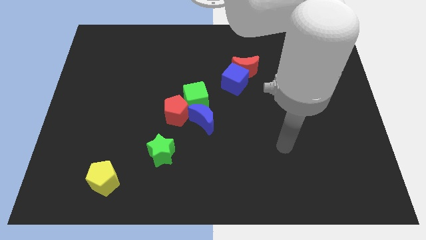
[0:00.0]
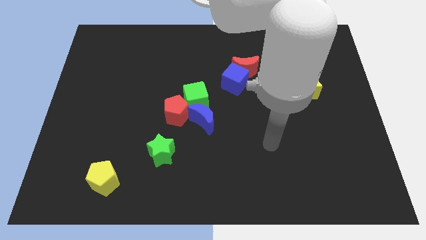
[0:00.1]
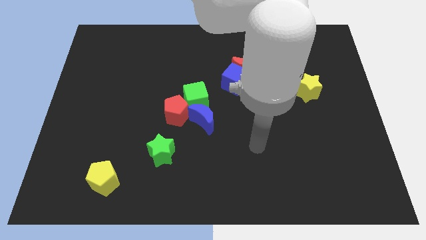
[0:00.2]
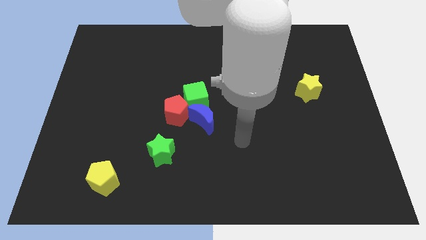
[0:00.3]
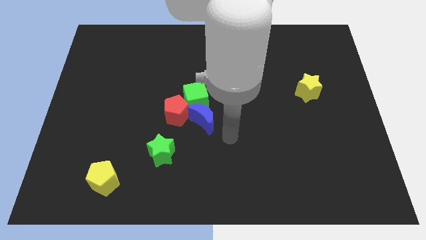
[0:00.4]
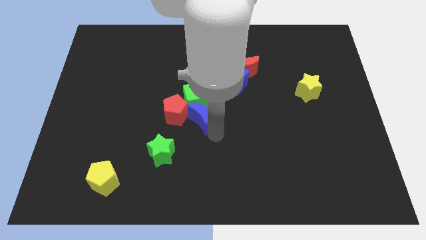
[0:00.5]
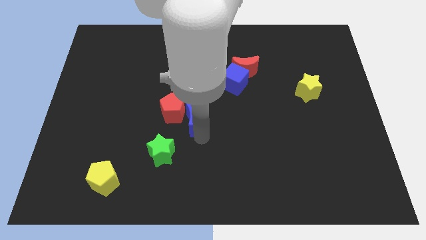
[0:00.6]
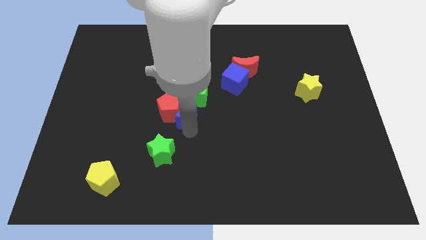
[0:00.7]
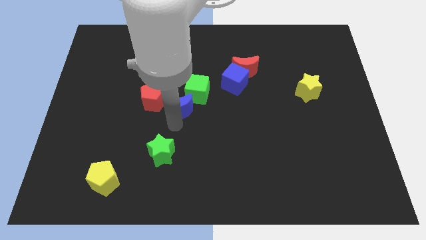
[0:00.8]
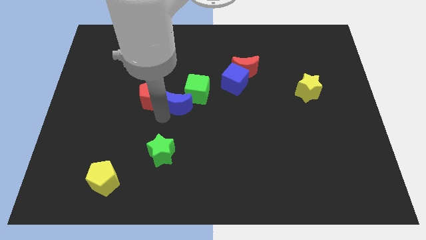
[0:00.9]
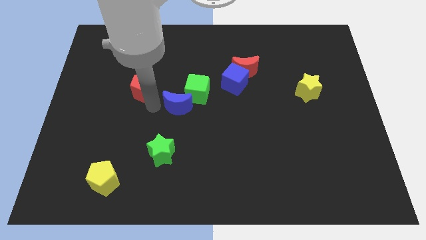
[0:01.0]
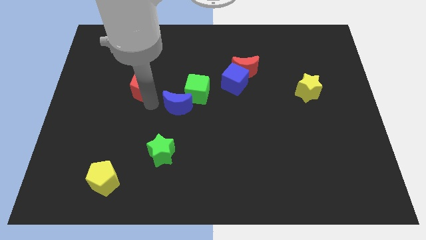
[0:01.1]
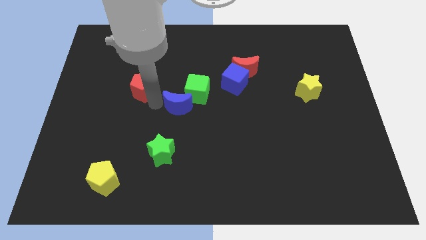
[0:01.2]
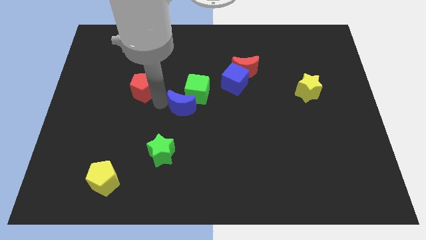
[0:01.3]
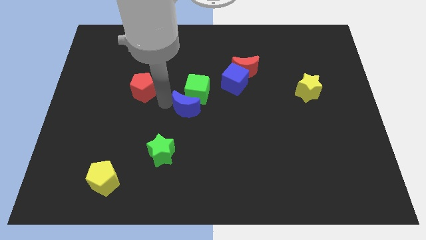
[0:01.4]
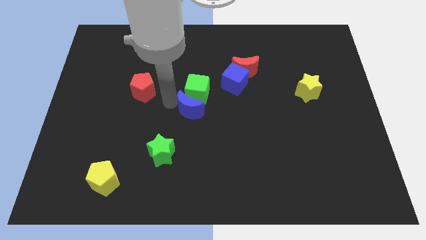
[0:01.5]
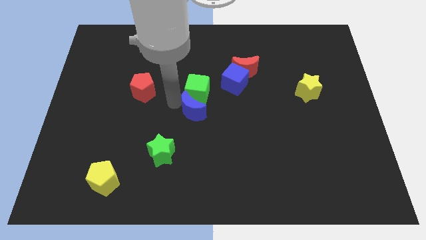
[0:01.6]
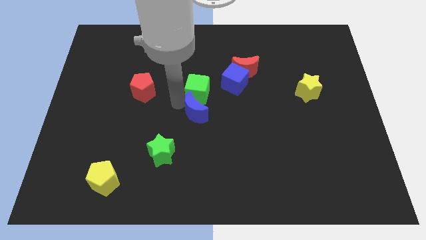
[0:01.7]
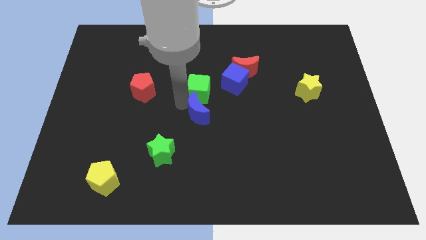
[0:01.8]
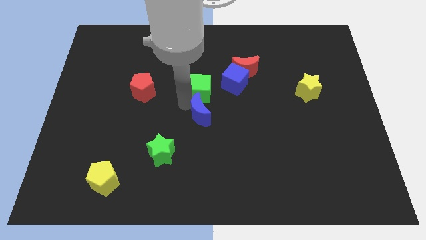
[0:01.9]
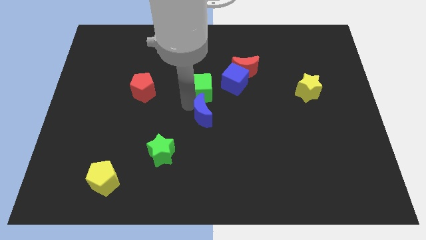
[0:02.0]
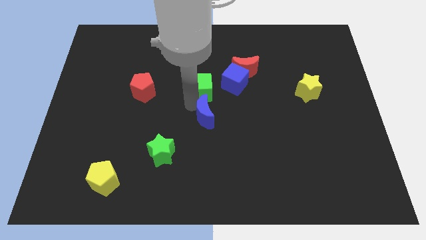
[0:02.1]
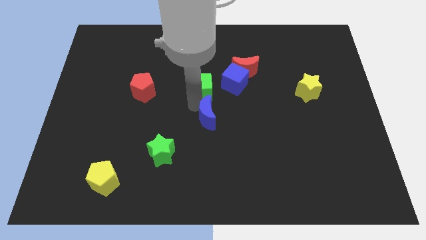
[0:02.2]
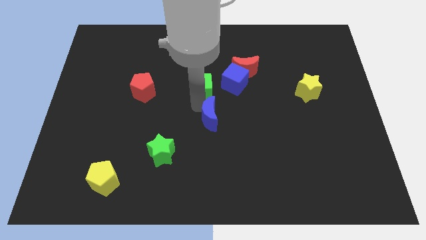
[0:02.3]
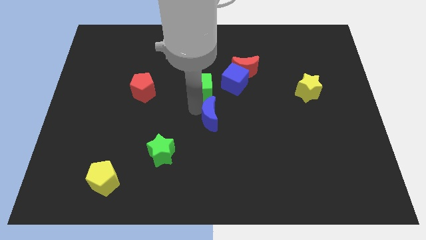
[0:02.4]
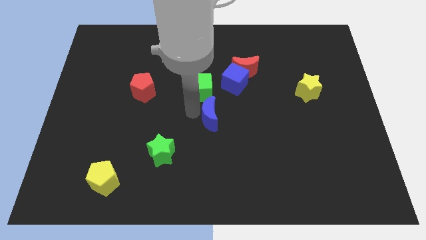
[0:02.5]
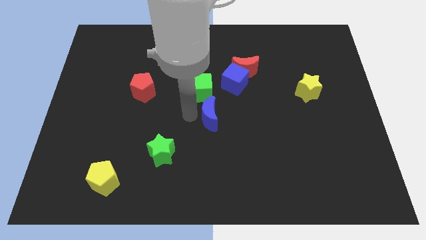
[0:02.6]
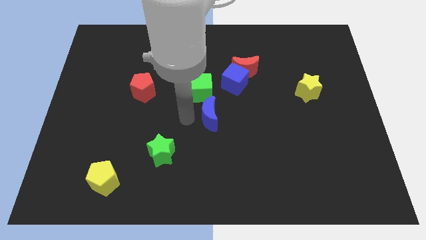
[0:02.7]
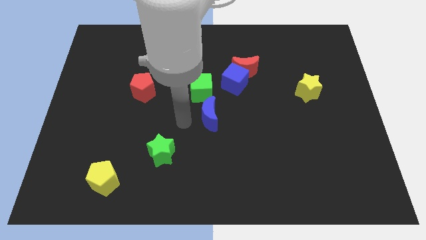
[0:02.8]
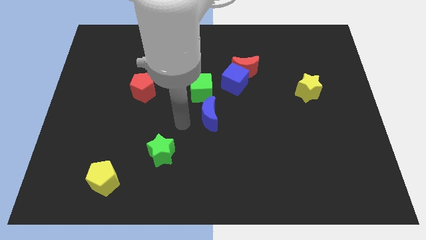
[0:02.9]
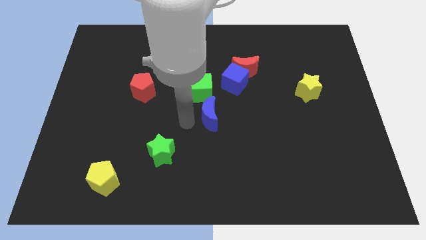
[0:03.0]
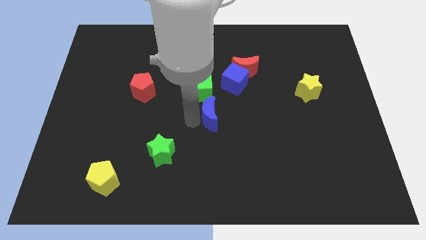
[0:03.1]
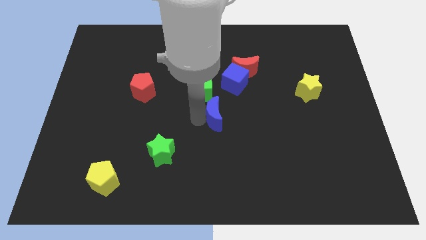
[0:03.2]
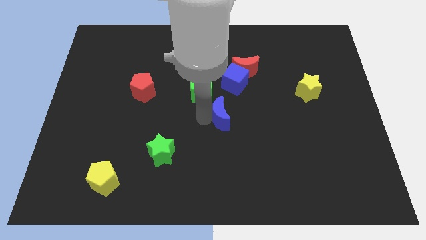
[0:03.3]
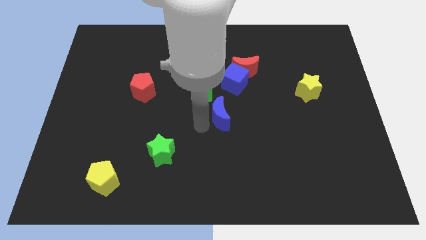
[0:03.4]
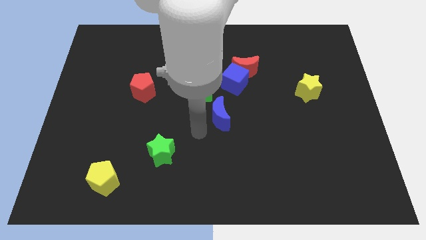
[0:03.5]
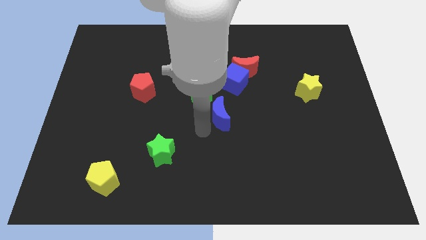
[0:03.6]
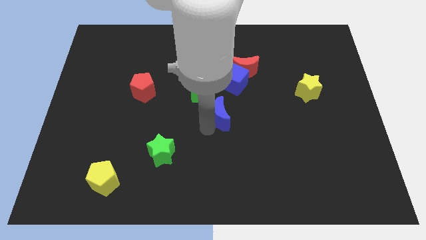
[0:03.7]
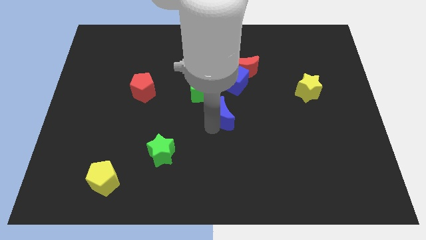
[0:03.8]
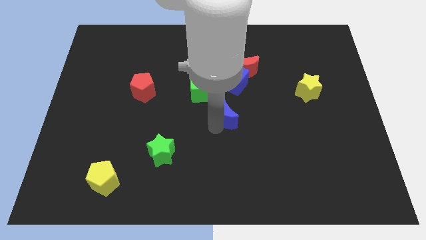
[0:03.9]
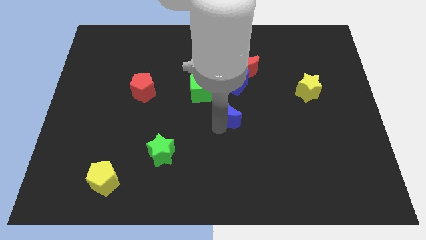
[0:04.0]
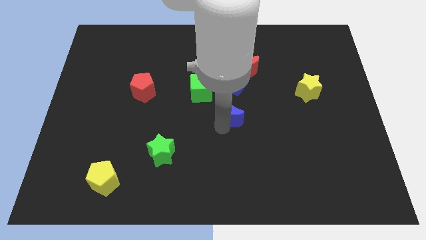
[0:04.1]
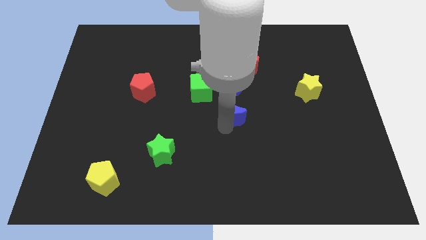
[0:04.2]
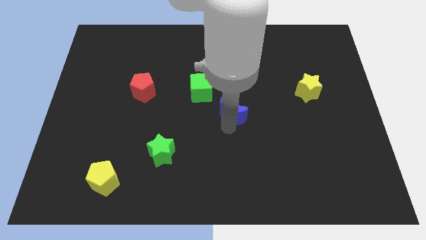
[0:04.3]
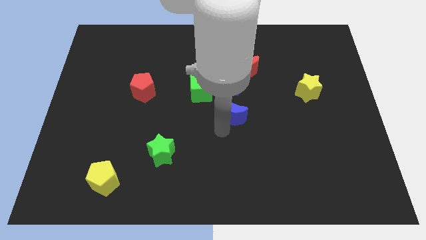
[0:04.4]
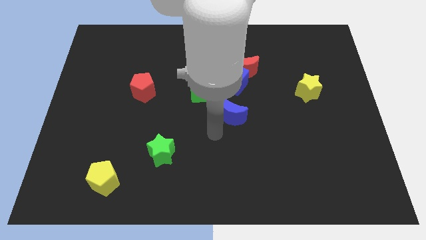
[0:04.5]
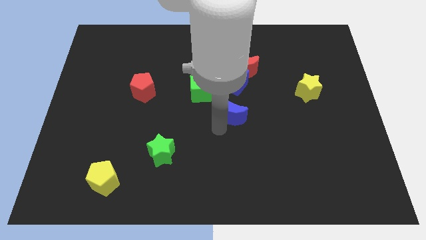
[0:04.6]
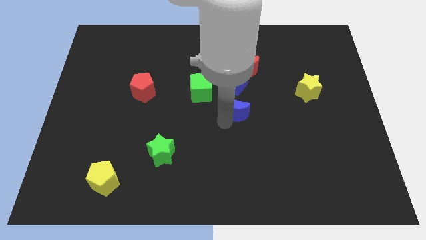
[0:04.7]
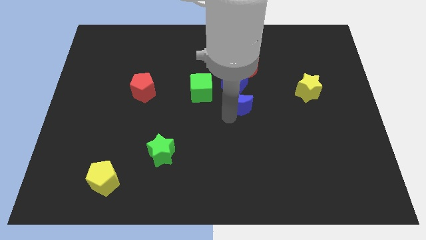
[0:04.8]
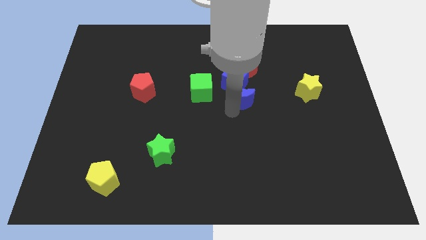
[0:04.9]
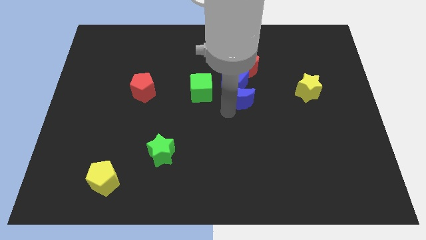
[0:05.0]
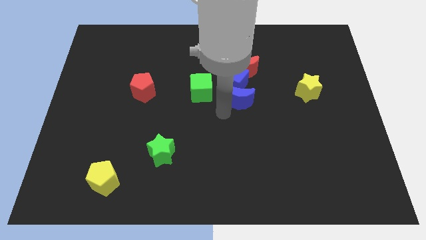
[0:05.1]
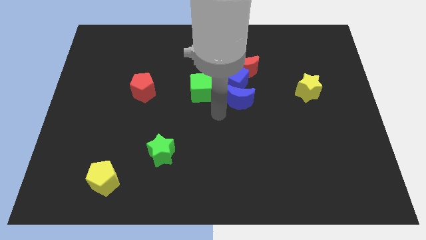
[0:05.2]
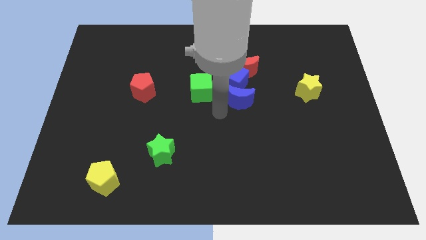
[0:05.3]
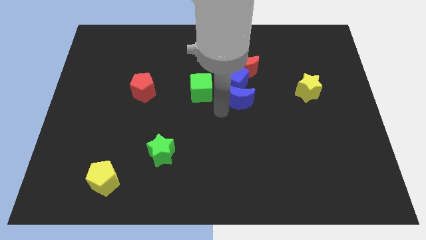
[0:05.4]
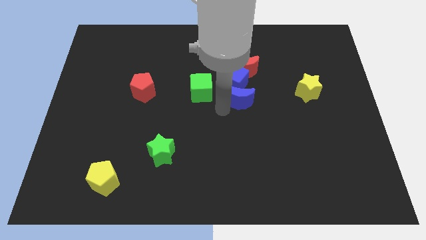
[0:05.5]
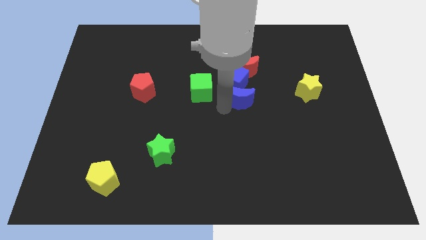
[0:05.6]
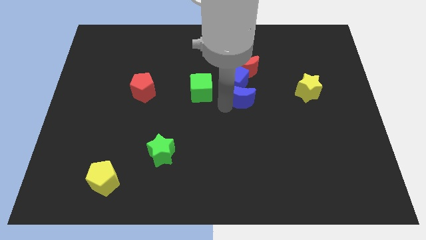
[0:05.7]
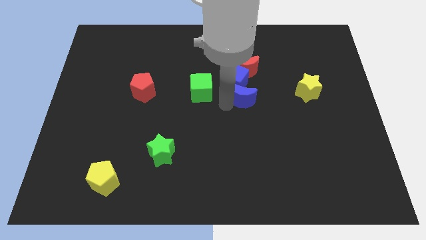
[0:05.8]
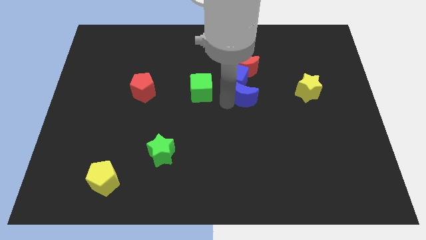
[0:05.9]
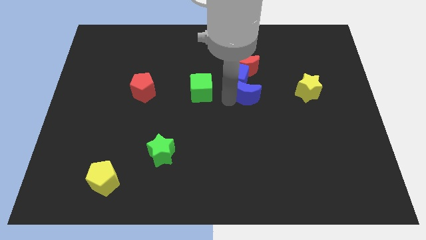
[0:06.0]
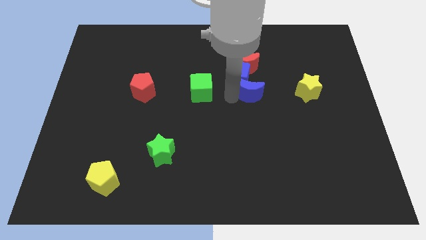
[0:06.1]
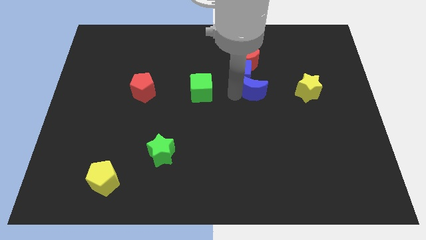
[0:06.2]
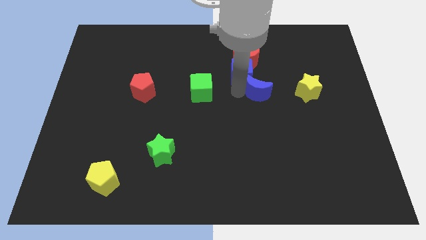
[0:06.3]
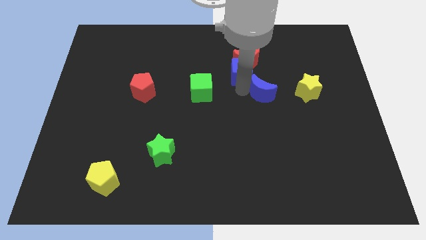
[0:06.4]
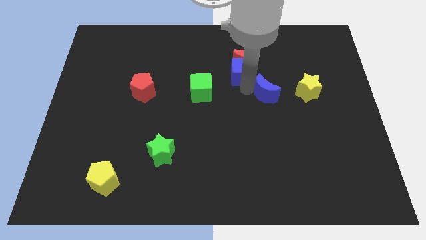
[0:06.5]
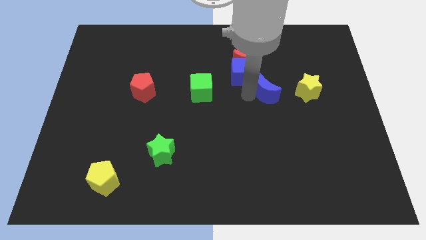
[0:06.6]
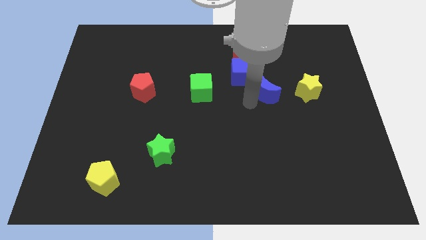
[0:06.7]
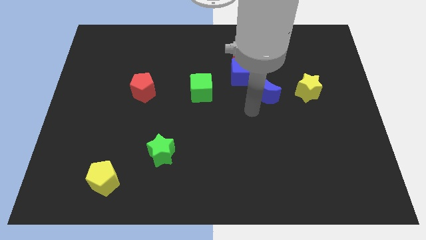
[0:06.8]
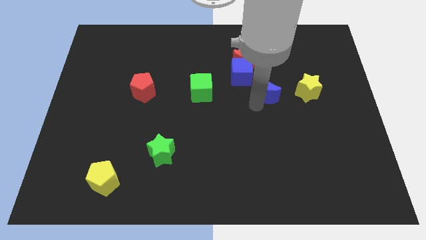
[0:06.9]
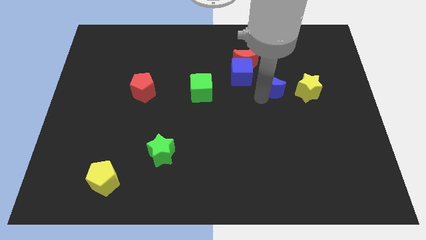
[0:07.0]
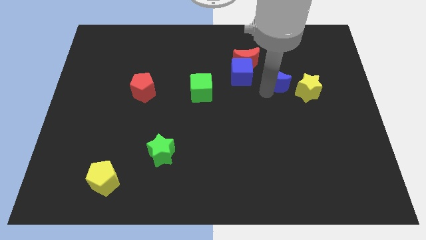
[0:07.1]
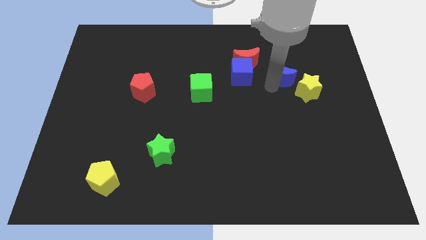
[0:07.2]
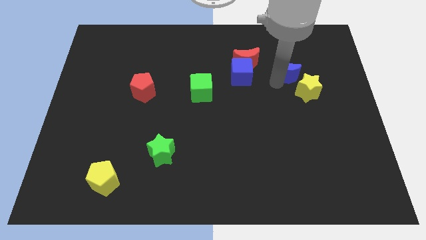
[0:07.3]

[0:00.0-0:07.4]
put the blue moon to the right of the red moon

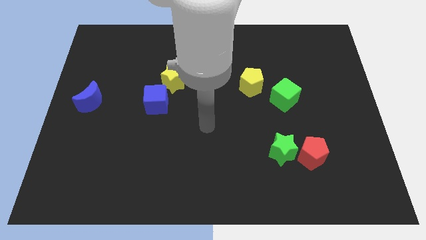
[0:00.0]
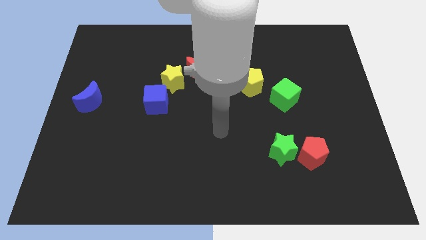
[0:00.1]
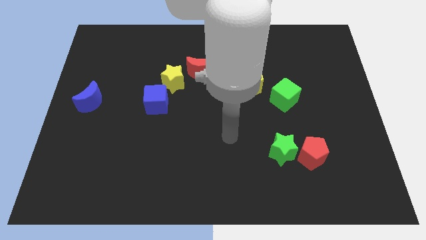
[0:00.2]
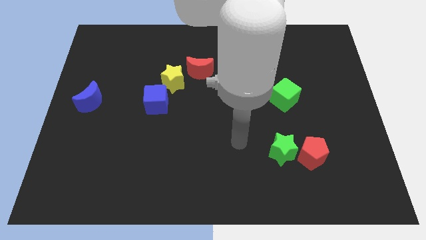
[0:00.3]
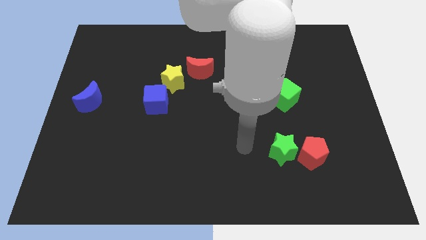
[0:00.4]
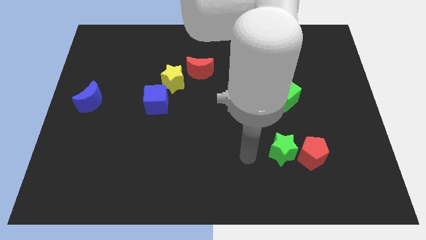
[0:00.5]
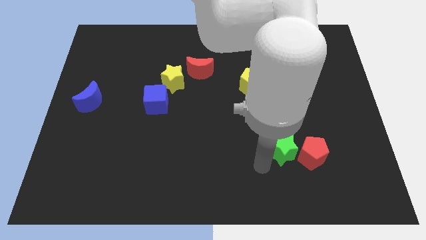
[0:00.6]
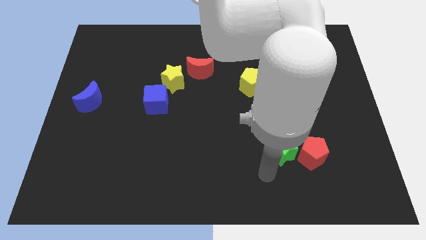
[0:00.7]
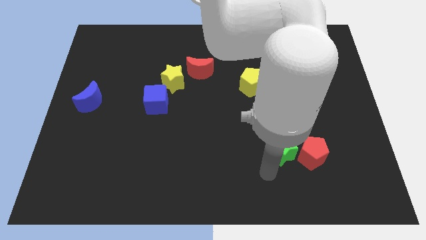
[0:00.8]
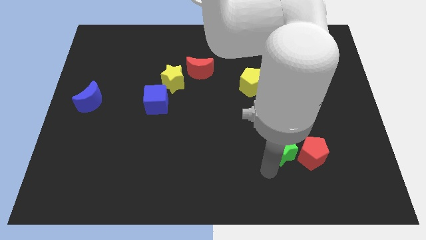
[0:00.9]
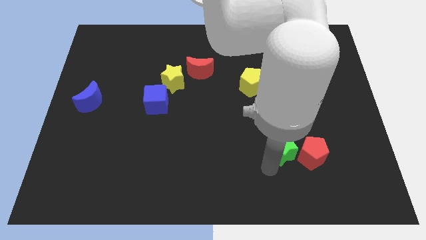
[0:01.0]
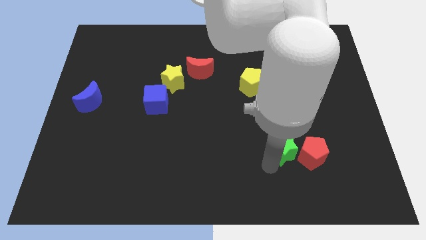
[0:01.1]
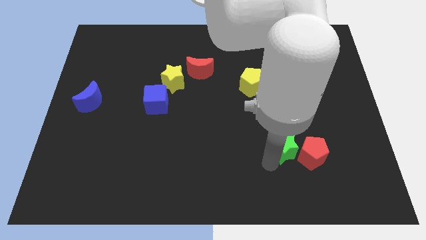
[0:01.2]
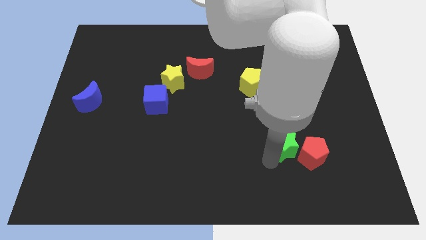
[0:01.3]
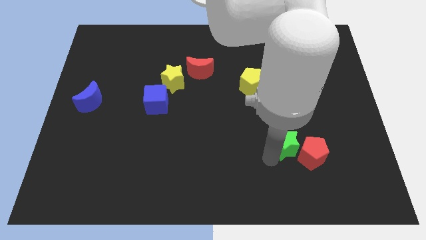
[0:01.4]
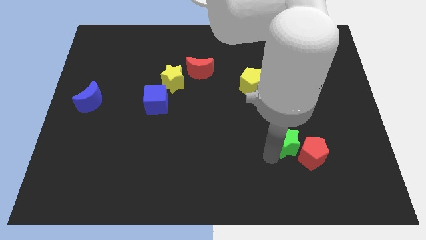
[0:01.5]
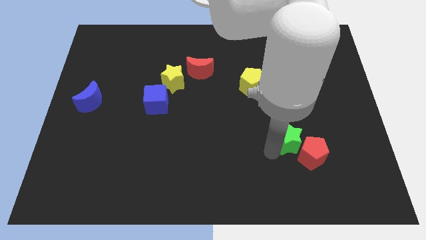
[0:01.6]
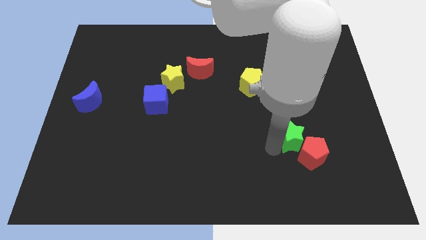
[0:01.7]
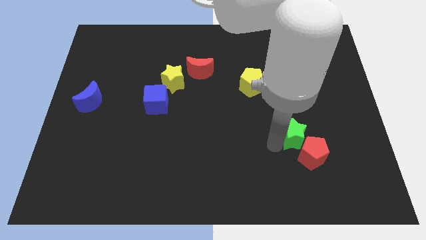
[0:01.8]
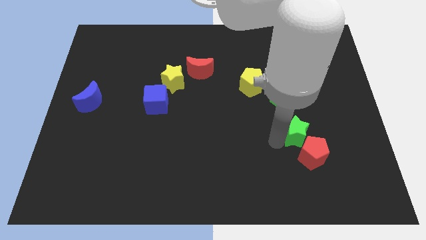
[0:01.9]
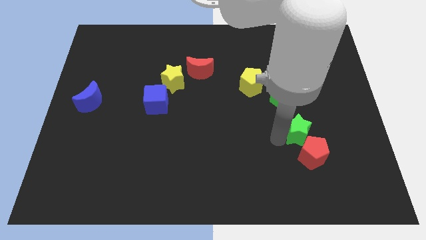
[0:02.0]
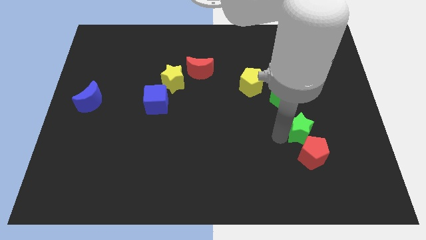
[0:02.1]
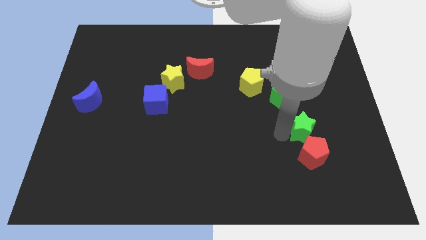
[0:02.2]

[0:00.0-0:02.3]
slide the green star to the bottom right side of the green cube
